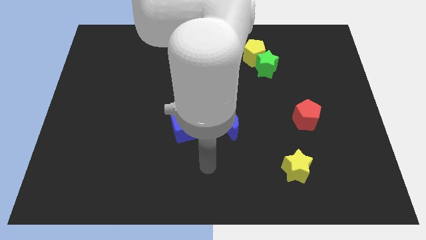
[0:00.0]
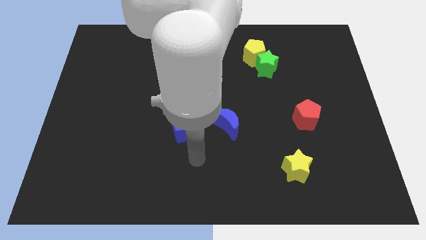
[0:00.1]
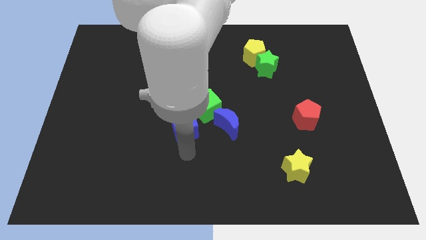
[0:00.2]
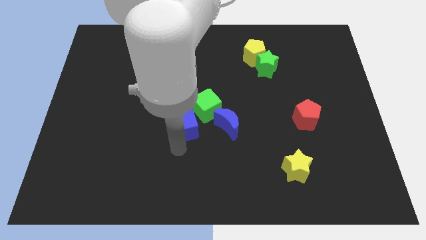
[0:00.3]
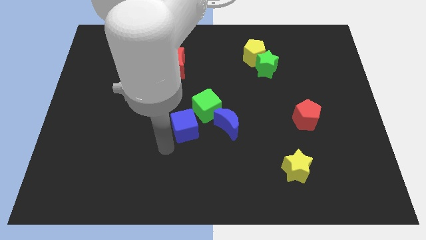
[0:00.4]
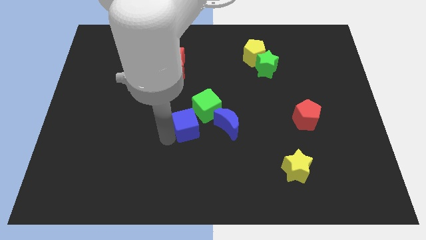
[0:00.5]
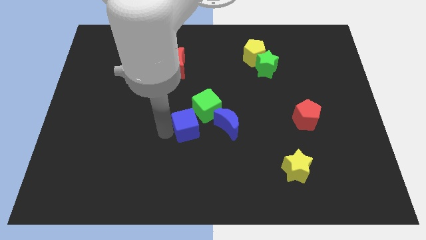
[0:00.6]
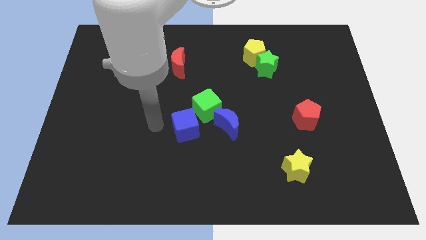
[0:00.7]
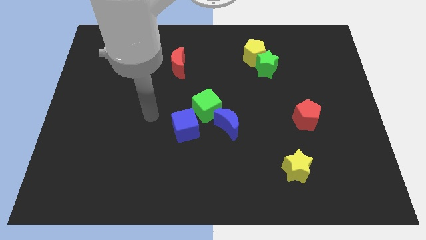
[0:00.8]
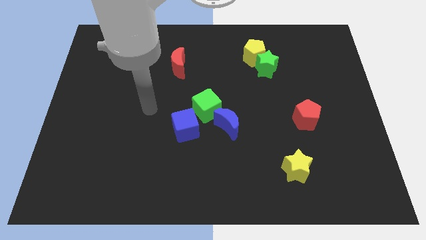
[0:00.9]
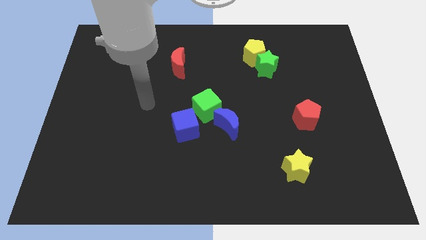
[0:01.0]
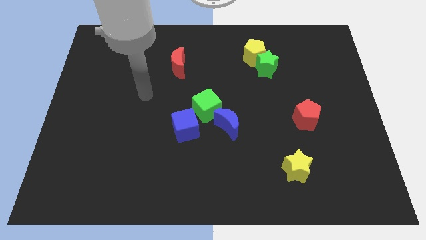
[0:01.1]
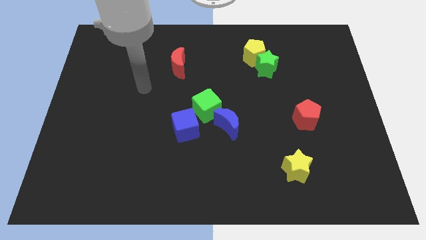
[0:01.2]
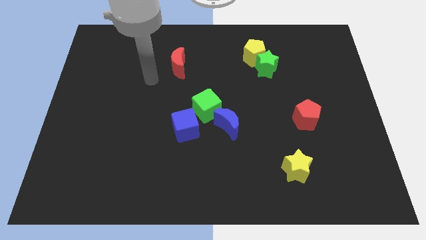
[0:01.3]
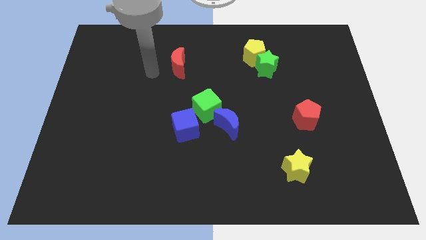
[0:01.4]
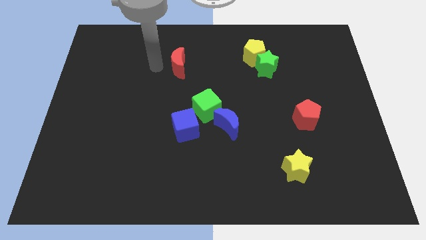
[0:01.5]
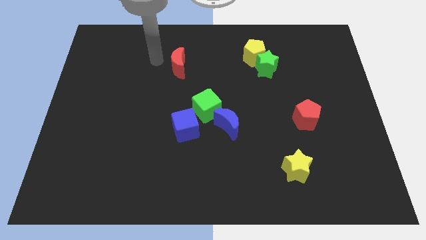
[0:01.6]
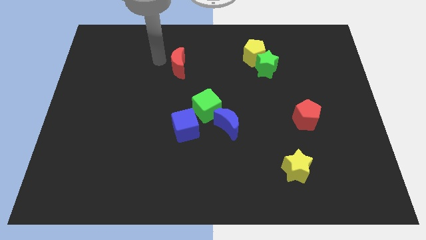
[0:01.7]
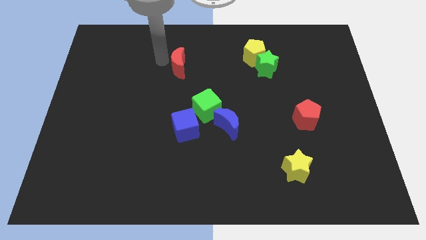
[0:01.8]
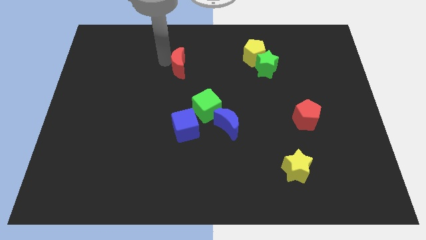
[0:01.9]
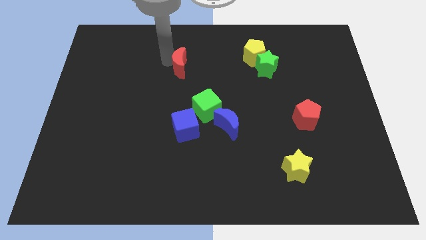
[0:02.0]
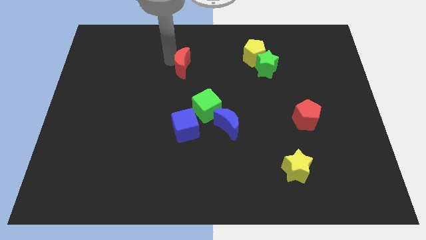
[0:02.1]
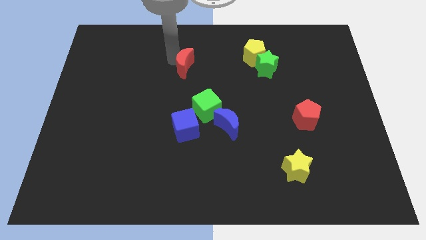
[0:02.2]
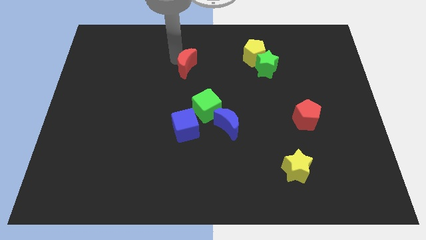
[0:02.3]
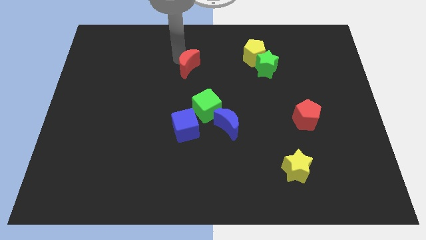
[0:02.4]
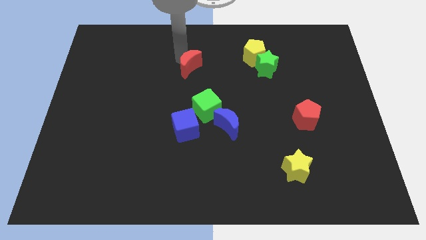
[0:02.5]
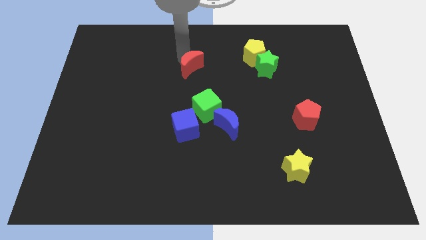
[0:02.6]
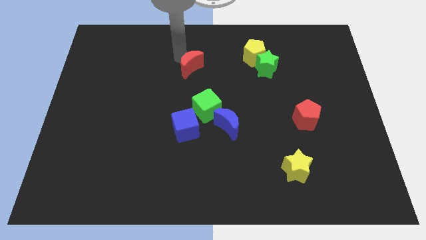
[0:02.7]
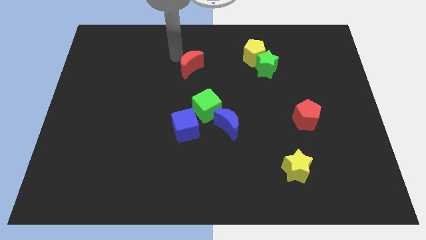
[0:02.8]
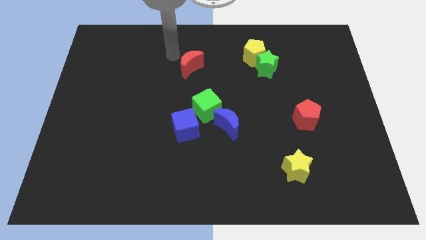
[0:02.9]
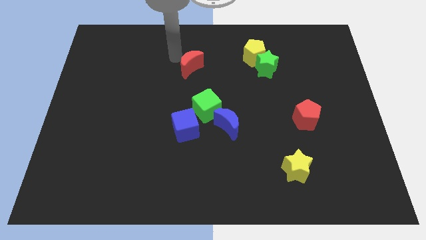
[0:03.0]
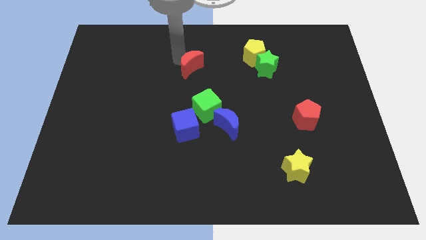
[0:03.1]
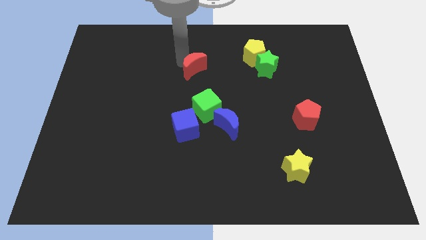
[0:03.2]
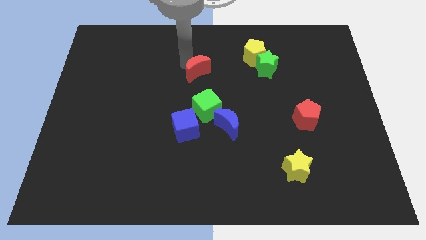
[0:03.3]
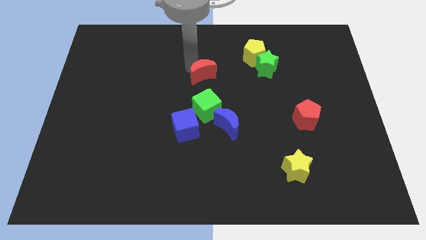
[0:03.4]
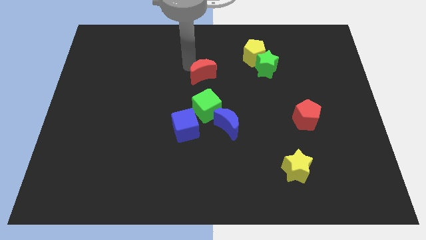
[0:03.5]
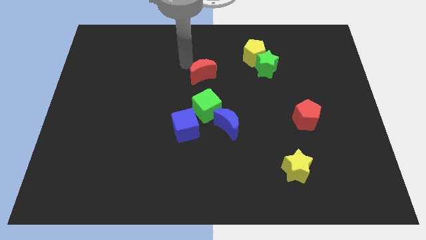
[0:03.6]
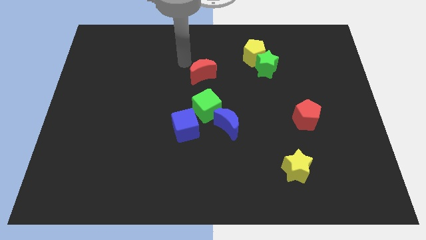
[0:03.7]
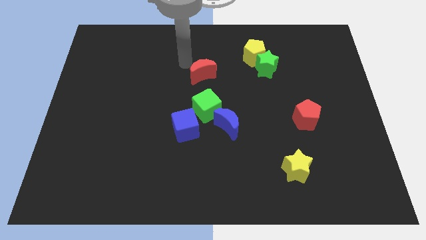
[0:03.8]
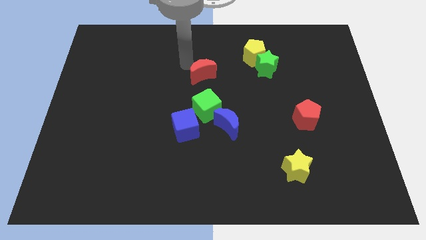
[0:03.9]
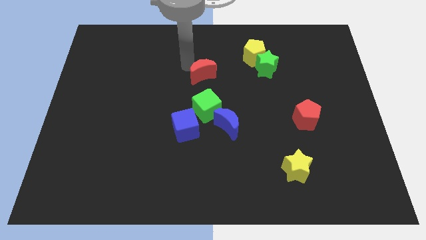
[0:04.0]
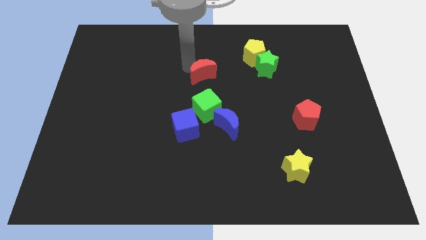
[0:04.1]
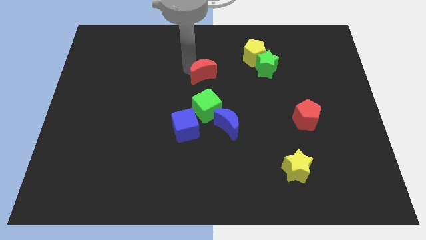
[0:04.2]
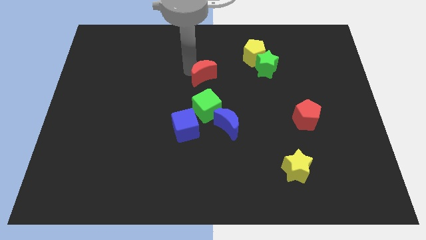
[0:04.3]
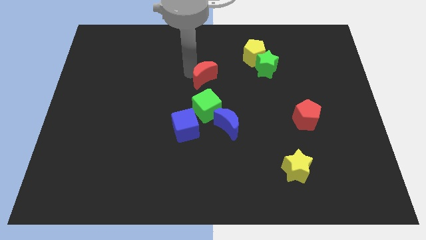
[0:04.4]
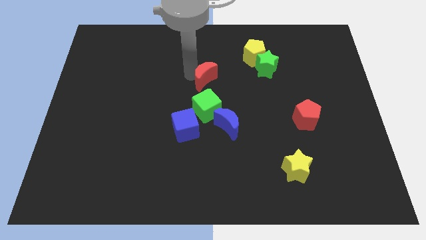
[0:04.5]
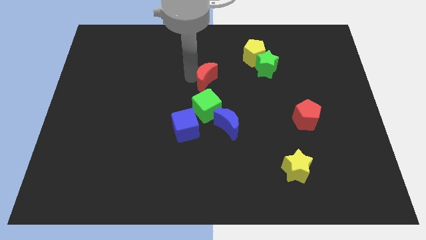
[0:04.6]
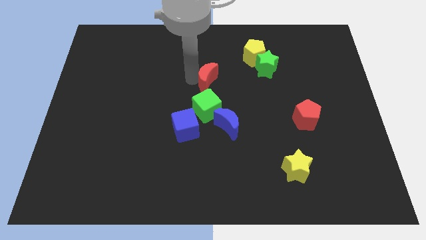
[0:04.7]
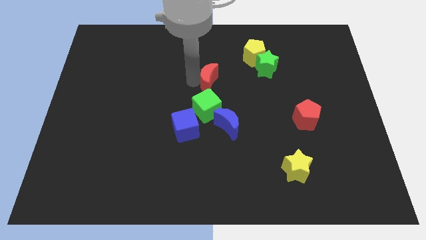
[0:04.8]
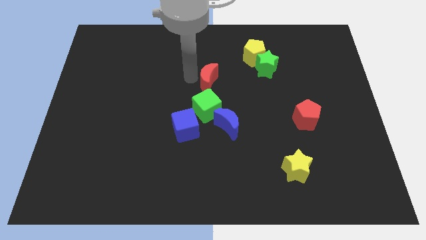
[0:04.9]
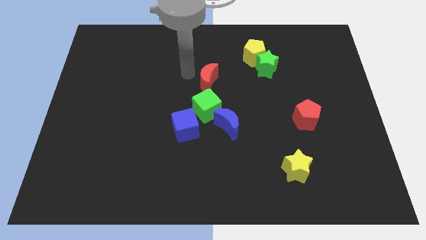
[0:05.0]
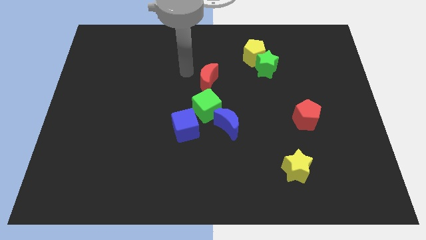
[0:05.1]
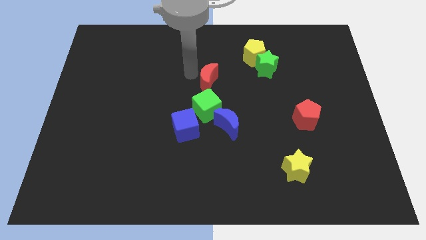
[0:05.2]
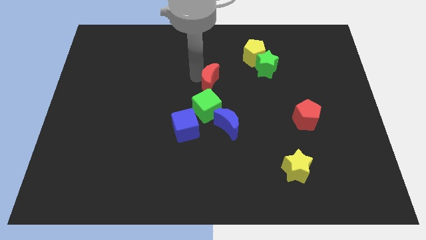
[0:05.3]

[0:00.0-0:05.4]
slide the red moon to the top side of the blue moon
